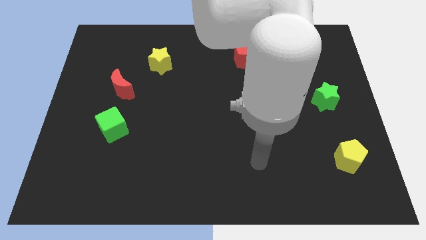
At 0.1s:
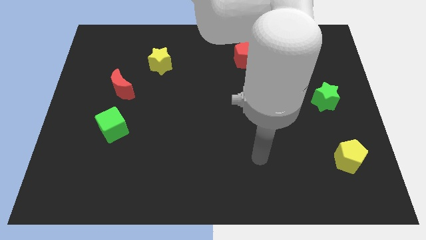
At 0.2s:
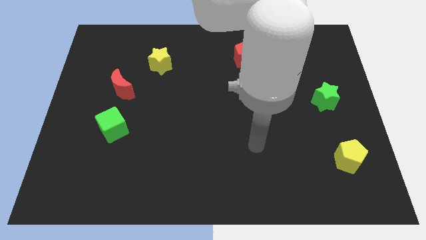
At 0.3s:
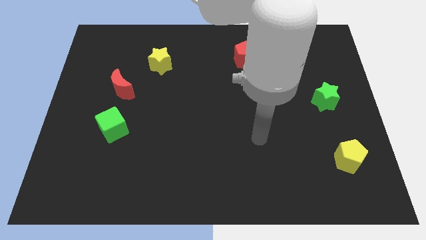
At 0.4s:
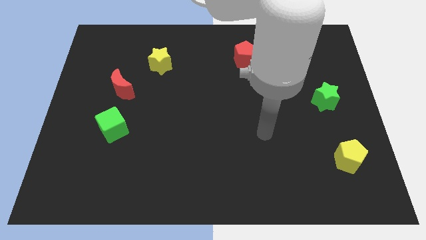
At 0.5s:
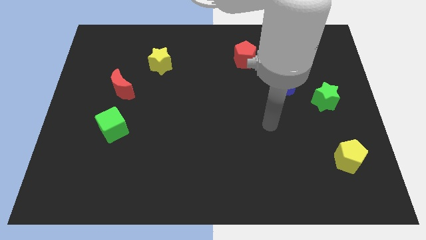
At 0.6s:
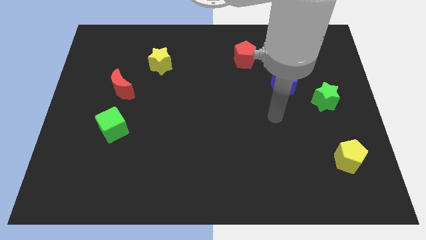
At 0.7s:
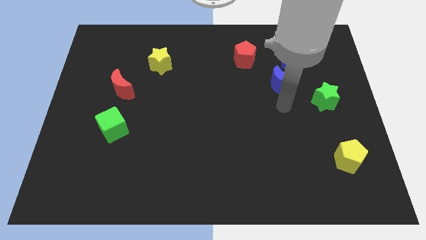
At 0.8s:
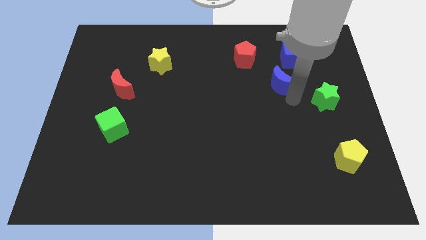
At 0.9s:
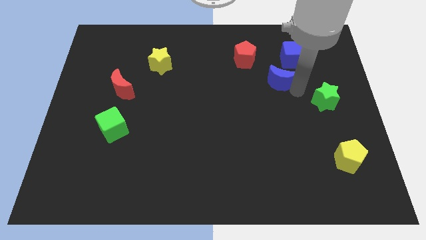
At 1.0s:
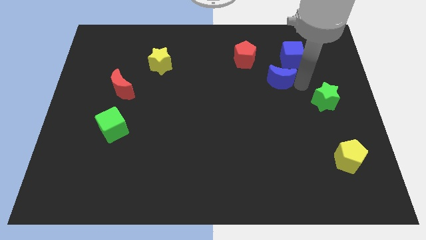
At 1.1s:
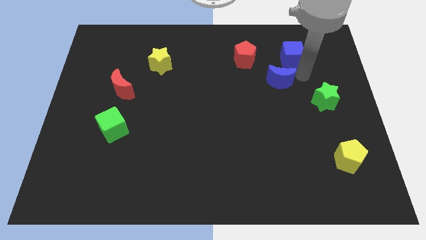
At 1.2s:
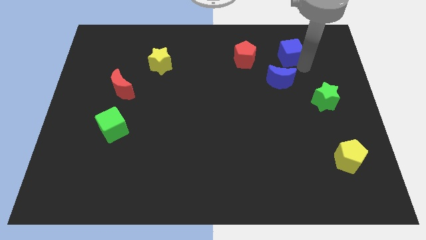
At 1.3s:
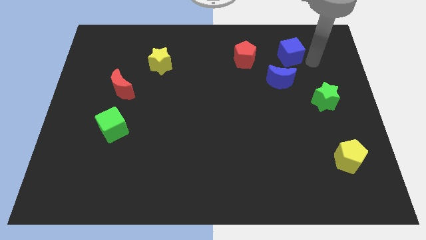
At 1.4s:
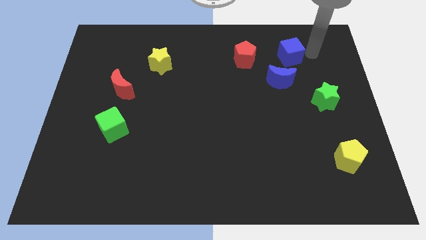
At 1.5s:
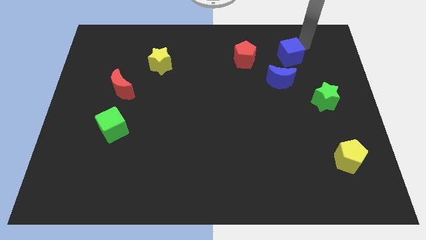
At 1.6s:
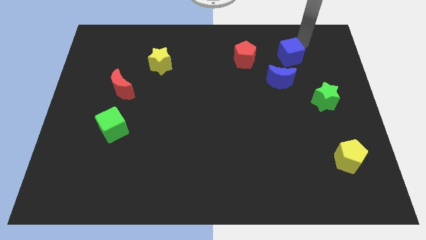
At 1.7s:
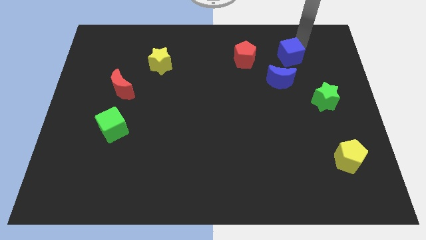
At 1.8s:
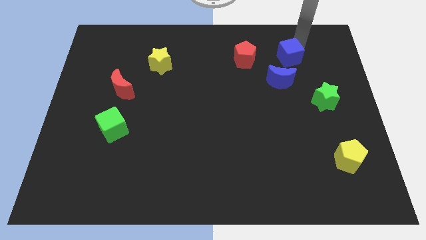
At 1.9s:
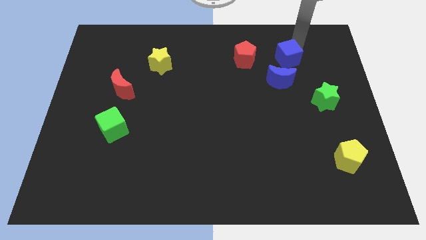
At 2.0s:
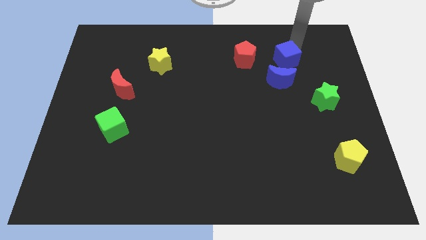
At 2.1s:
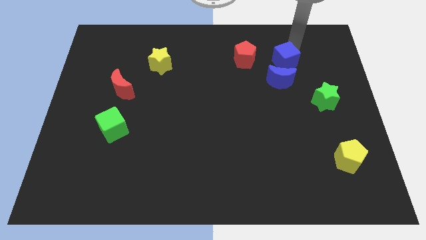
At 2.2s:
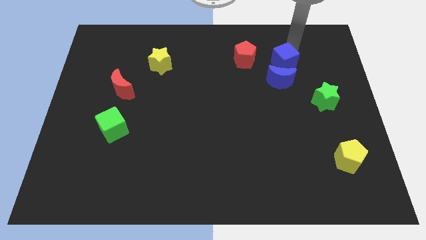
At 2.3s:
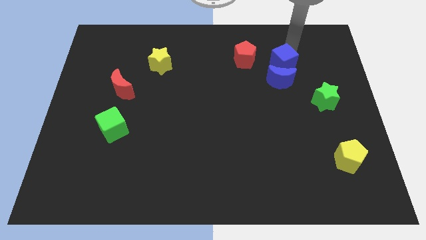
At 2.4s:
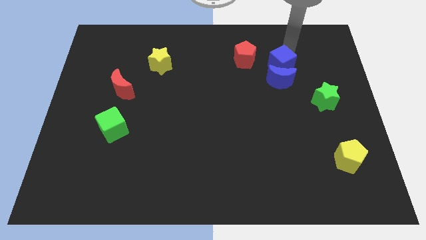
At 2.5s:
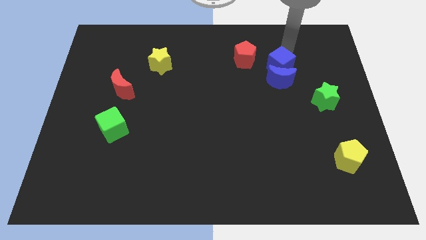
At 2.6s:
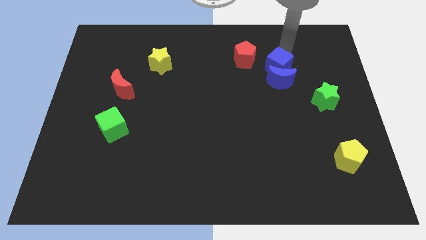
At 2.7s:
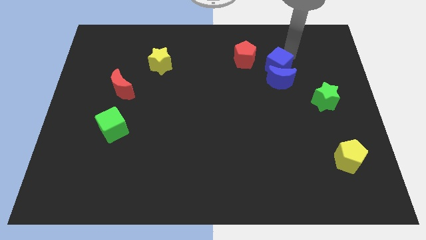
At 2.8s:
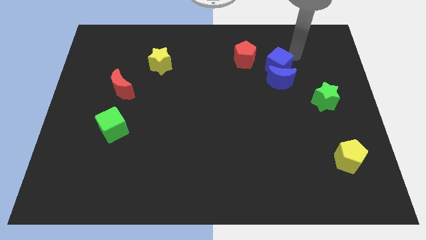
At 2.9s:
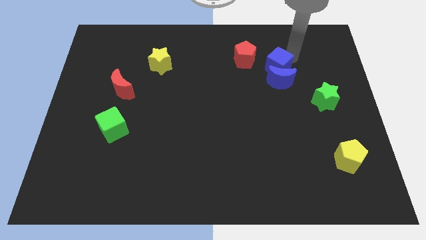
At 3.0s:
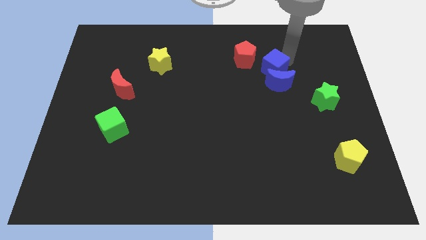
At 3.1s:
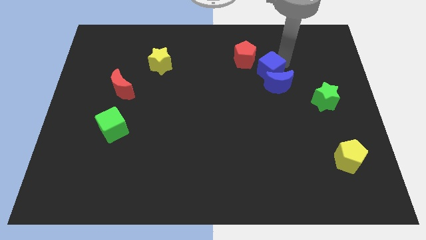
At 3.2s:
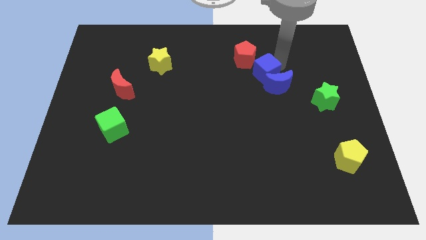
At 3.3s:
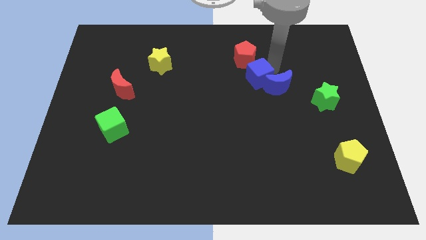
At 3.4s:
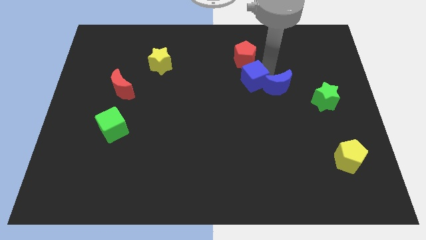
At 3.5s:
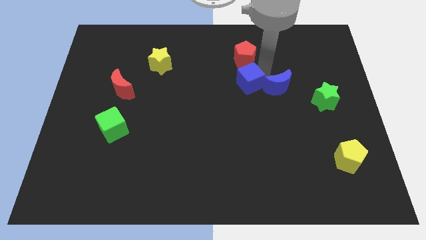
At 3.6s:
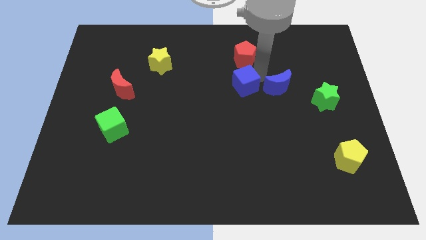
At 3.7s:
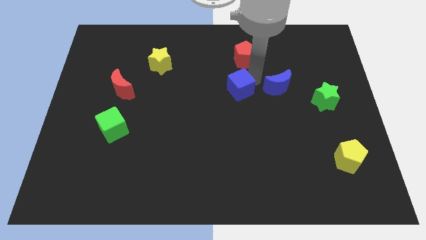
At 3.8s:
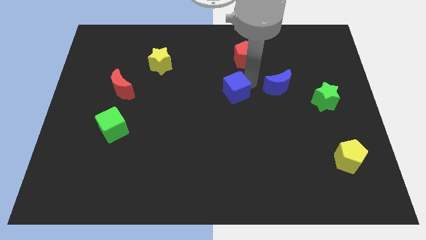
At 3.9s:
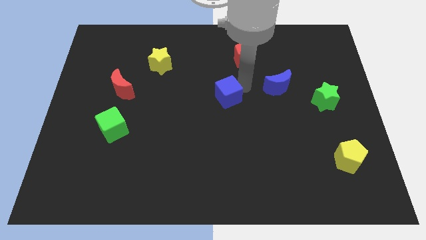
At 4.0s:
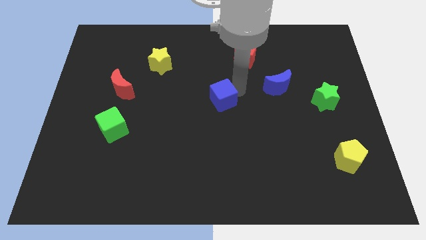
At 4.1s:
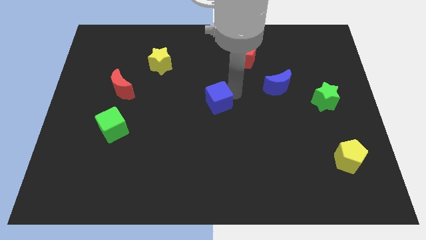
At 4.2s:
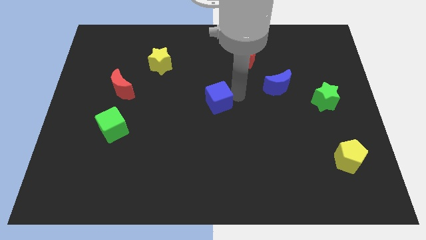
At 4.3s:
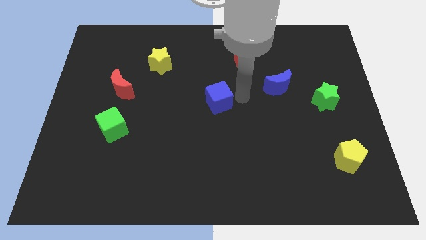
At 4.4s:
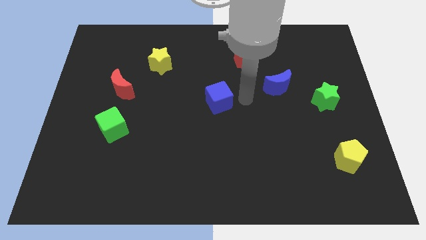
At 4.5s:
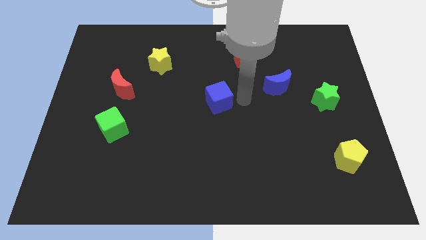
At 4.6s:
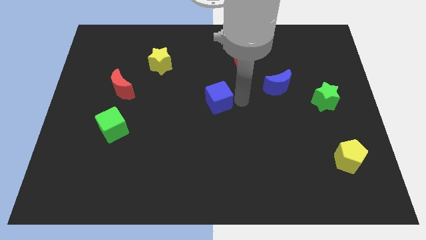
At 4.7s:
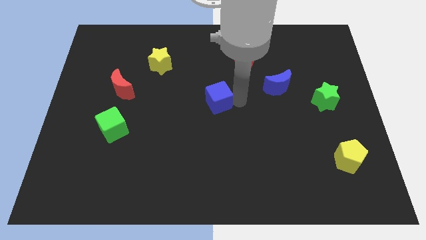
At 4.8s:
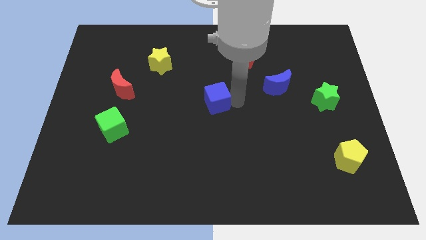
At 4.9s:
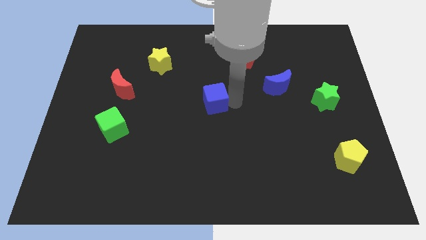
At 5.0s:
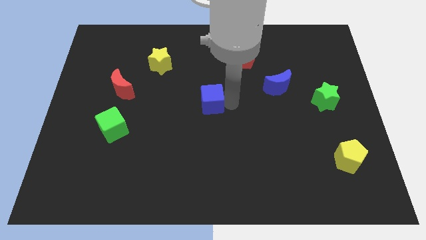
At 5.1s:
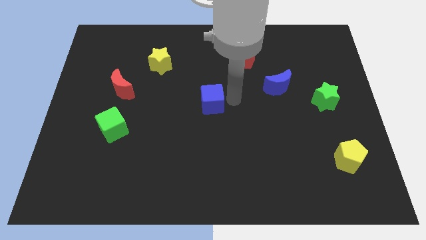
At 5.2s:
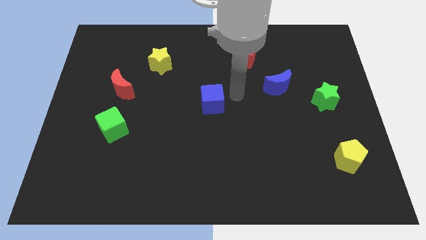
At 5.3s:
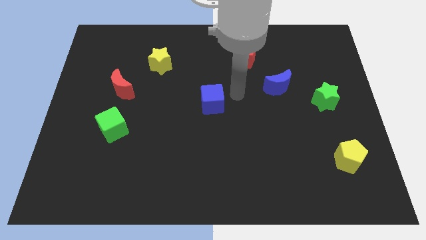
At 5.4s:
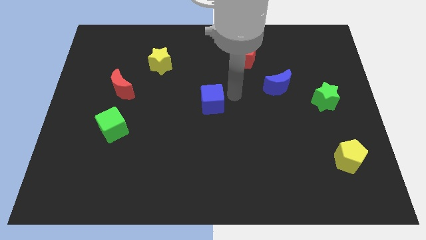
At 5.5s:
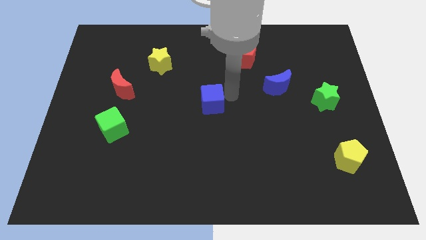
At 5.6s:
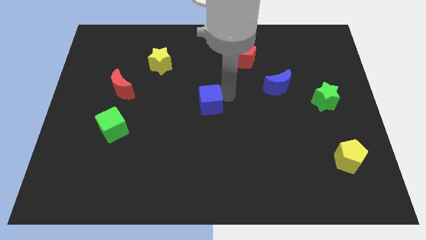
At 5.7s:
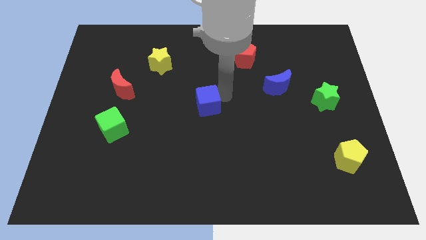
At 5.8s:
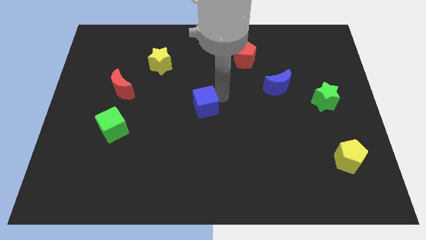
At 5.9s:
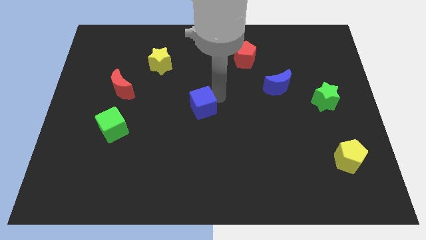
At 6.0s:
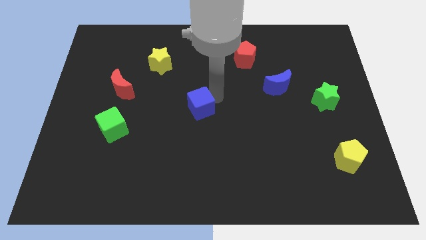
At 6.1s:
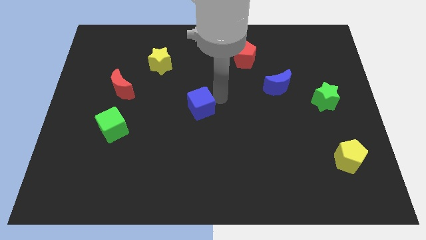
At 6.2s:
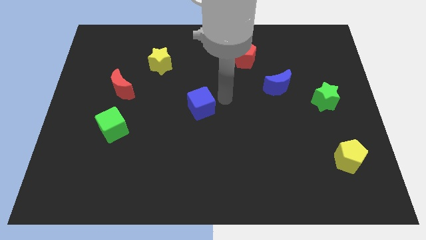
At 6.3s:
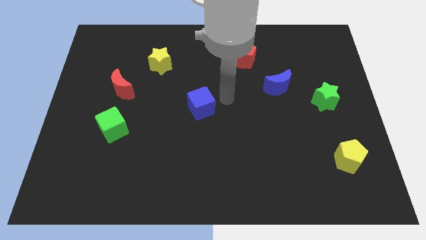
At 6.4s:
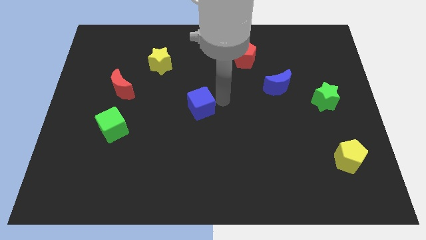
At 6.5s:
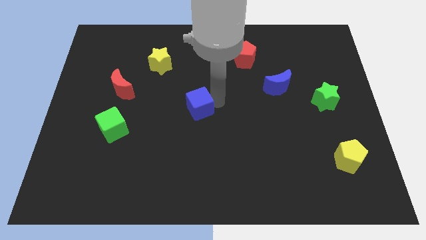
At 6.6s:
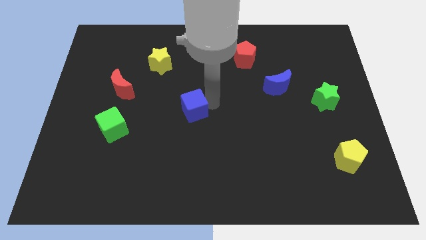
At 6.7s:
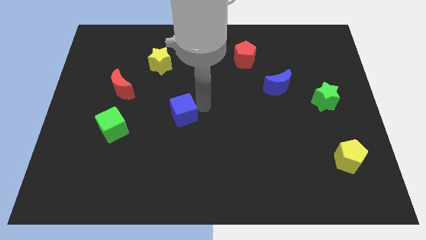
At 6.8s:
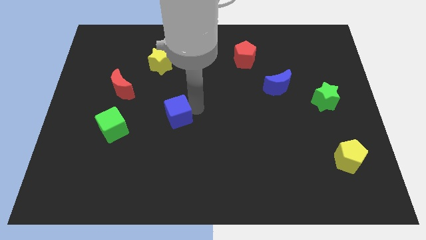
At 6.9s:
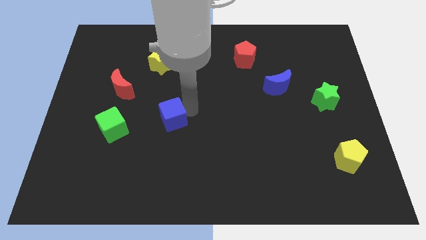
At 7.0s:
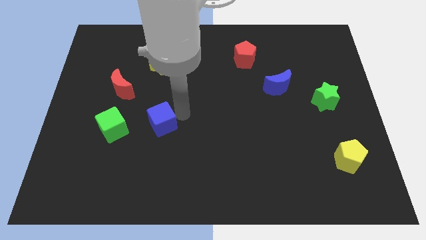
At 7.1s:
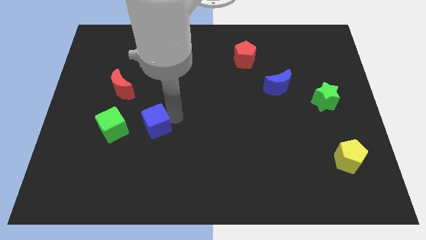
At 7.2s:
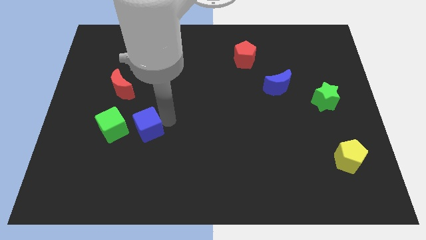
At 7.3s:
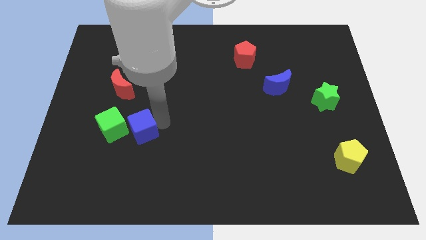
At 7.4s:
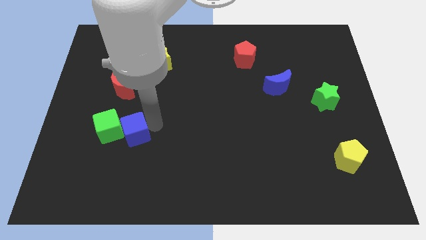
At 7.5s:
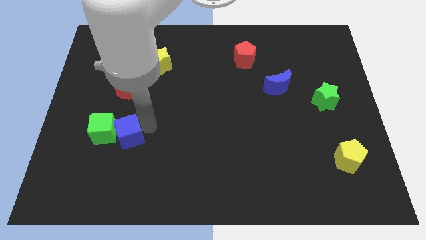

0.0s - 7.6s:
push the blue cube to the bottom of the red moon

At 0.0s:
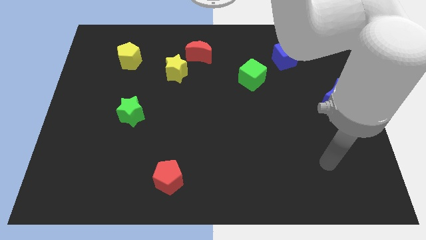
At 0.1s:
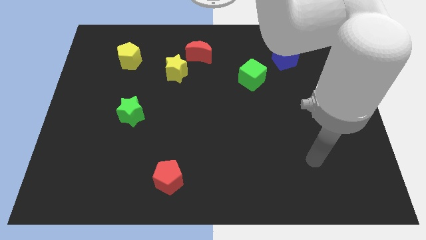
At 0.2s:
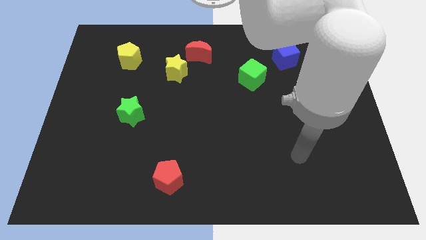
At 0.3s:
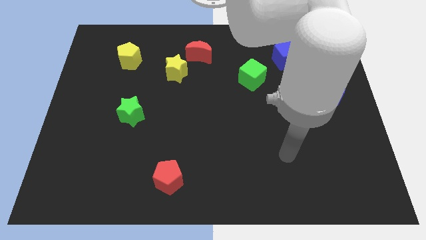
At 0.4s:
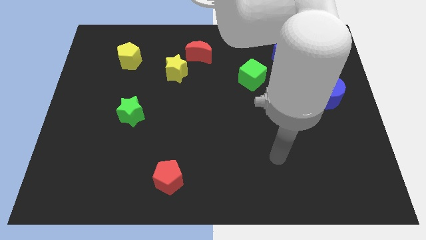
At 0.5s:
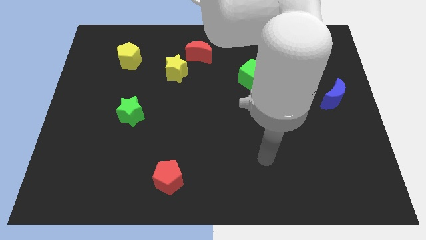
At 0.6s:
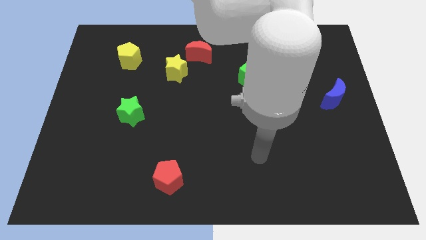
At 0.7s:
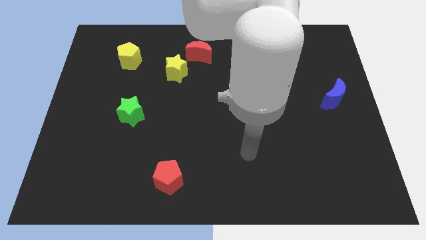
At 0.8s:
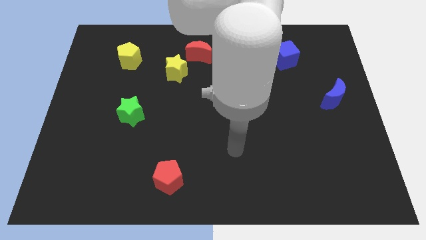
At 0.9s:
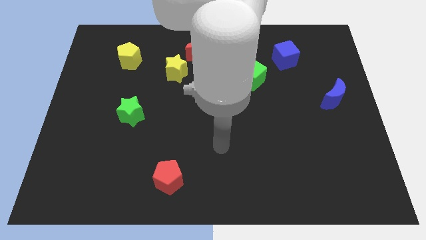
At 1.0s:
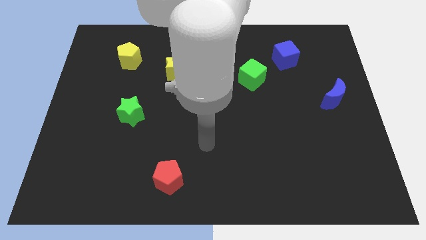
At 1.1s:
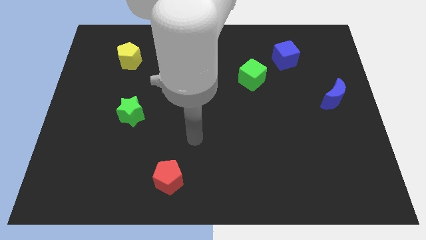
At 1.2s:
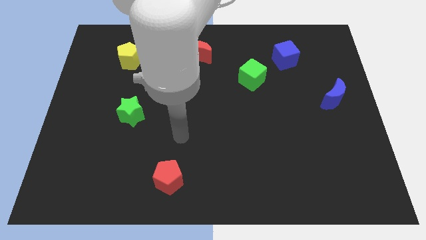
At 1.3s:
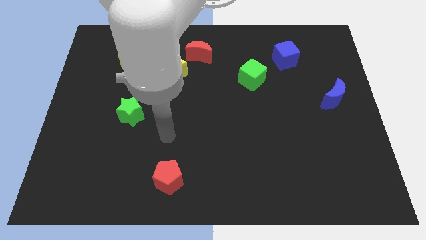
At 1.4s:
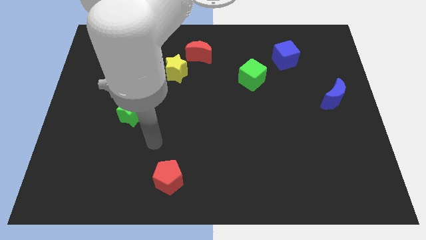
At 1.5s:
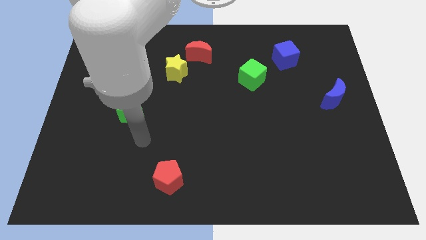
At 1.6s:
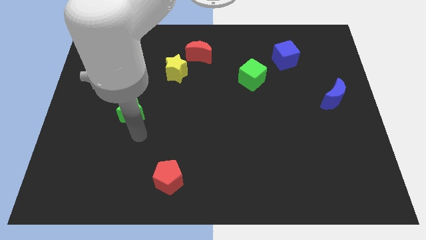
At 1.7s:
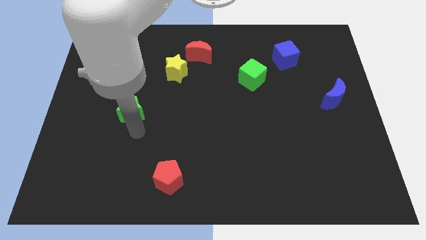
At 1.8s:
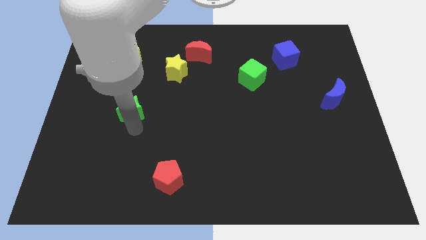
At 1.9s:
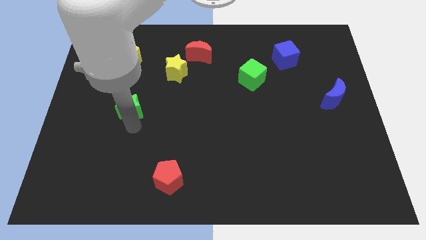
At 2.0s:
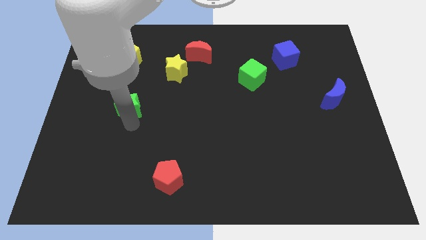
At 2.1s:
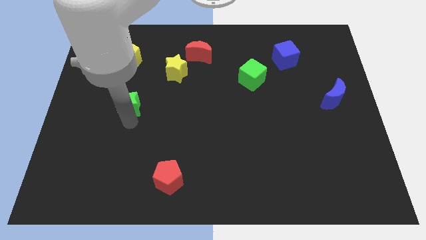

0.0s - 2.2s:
put the green star below the yellow pentagon
